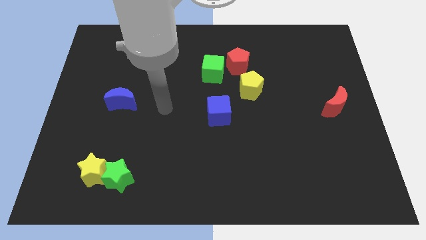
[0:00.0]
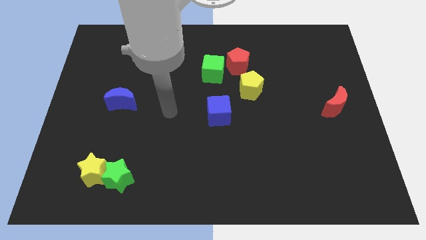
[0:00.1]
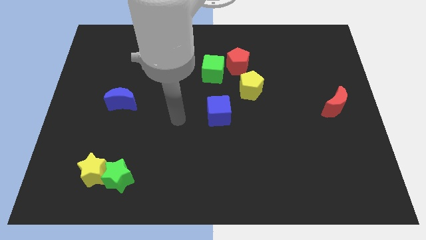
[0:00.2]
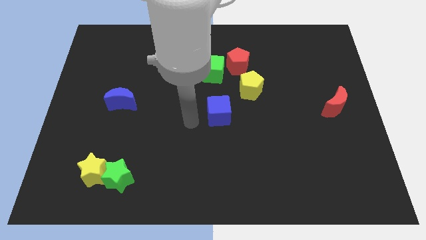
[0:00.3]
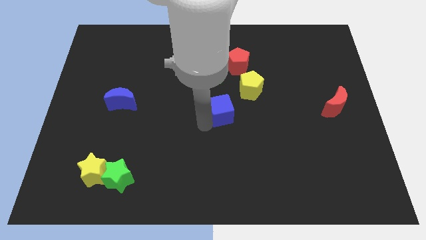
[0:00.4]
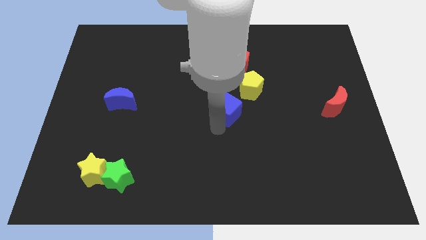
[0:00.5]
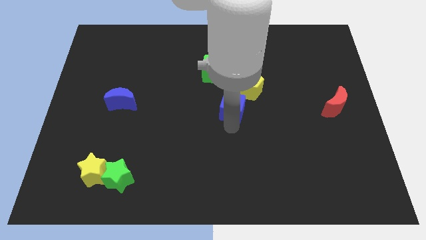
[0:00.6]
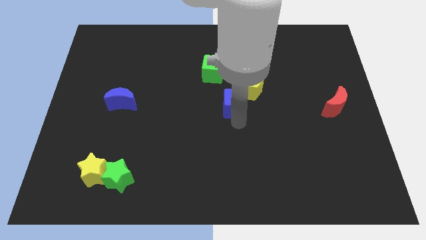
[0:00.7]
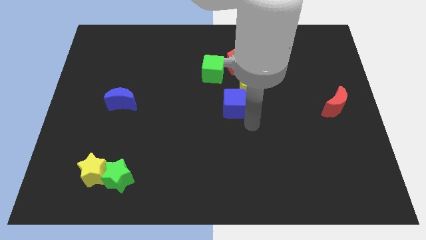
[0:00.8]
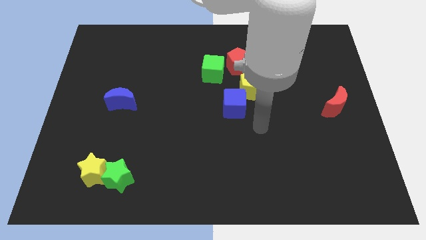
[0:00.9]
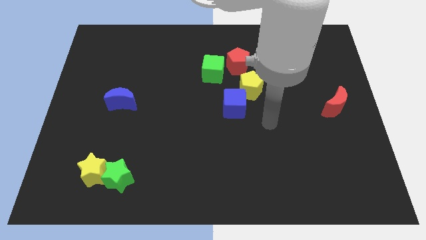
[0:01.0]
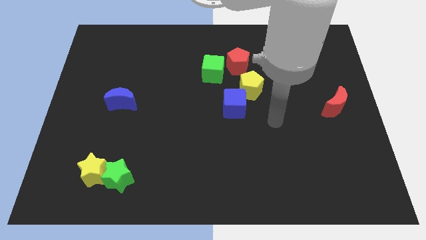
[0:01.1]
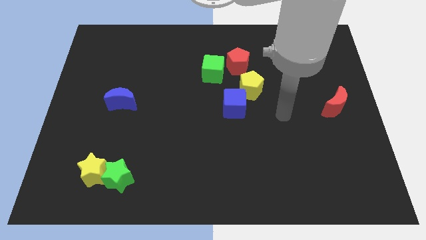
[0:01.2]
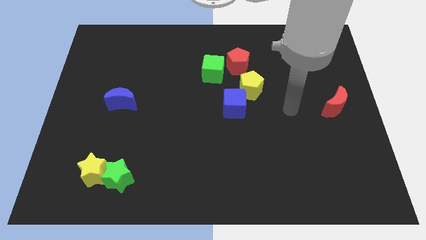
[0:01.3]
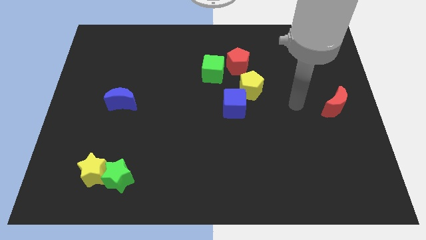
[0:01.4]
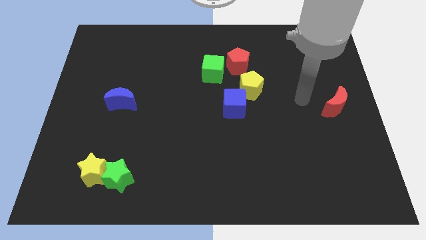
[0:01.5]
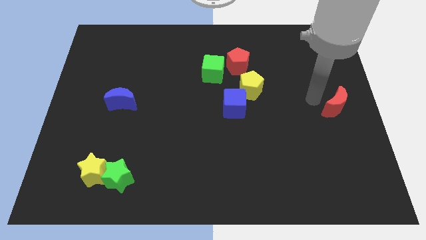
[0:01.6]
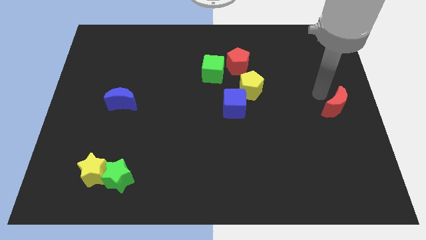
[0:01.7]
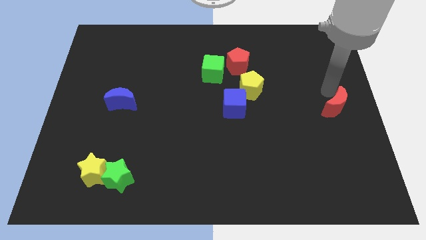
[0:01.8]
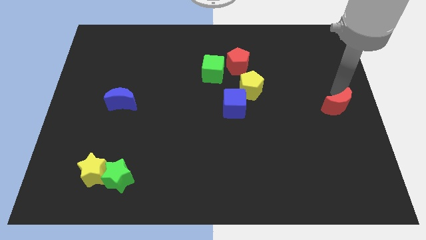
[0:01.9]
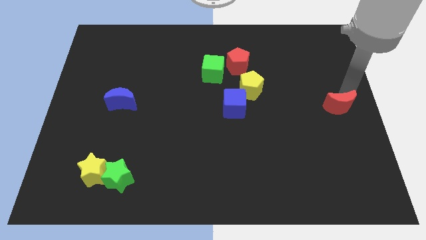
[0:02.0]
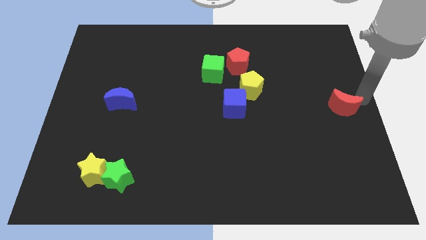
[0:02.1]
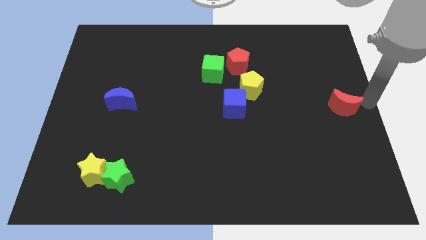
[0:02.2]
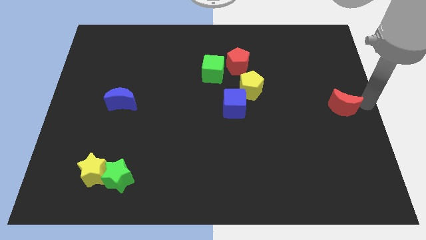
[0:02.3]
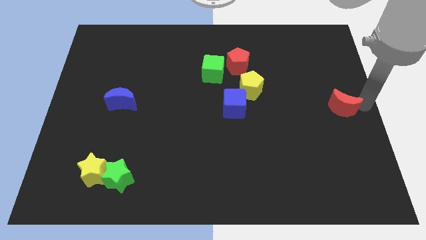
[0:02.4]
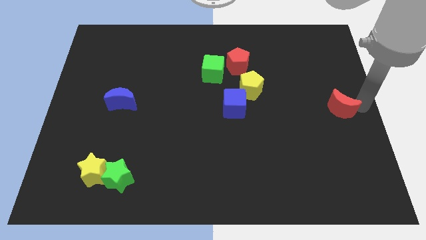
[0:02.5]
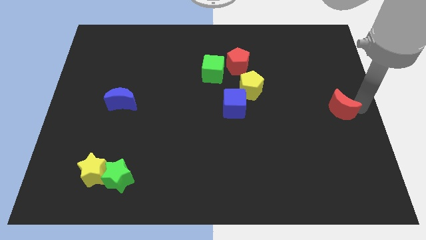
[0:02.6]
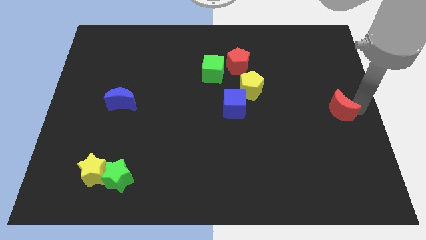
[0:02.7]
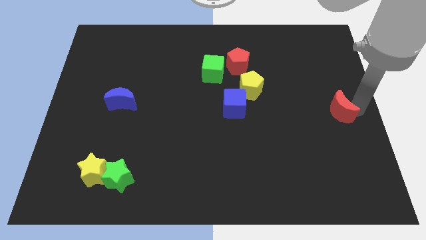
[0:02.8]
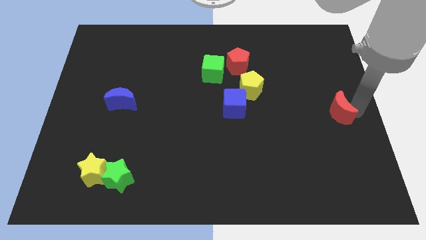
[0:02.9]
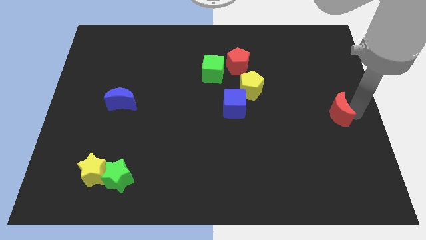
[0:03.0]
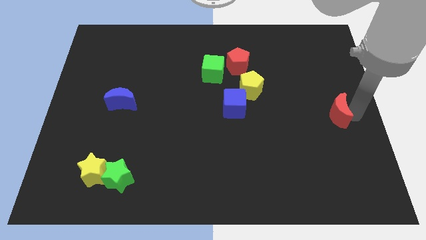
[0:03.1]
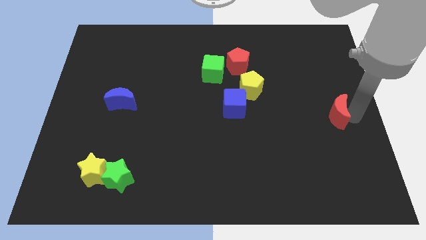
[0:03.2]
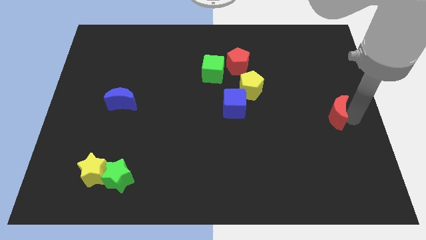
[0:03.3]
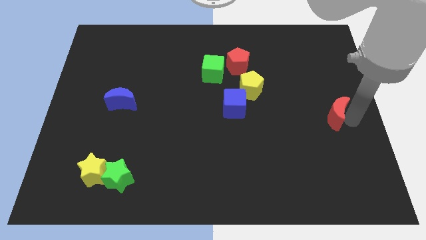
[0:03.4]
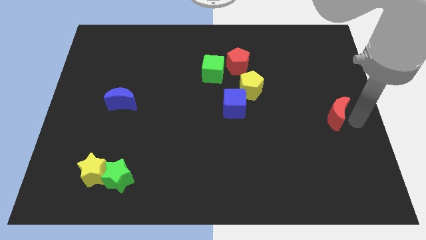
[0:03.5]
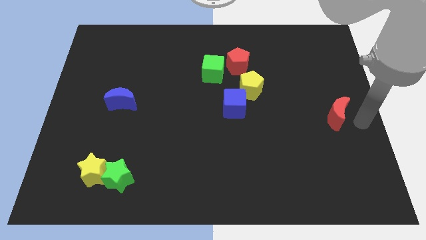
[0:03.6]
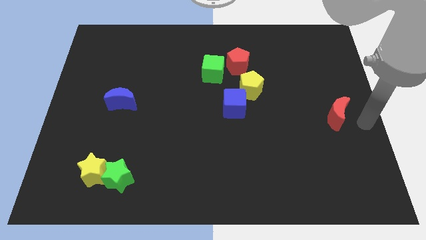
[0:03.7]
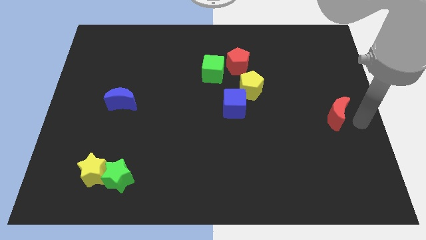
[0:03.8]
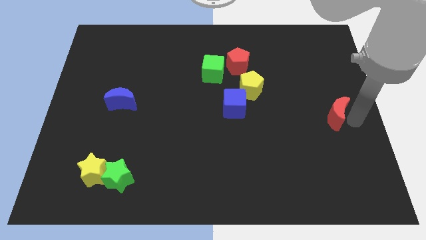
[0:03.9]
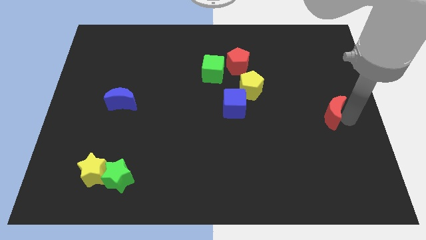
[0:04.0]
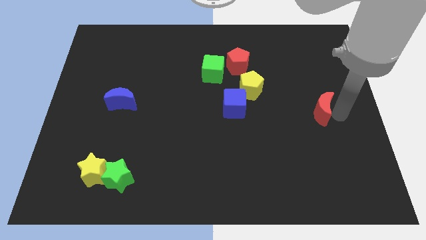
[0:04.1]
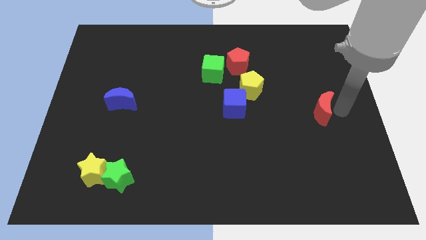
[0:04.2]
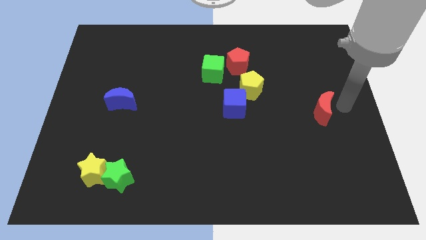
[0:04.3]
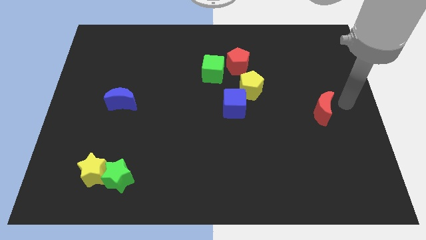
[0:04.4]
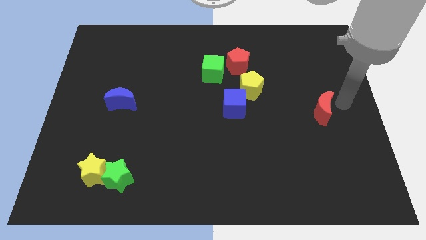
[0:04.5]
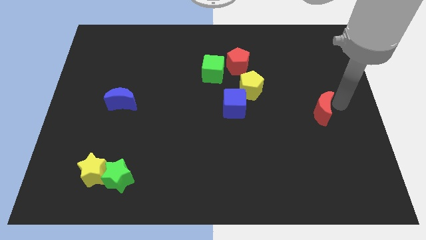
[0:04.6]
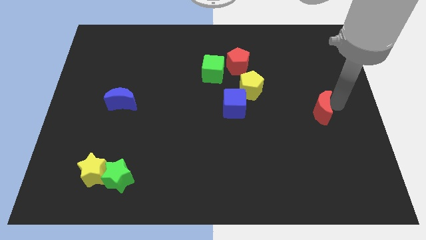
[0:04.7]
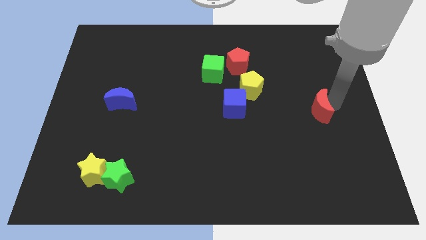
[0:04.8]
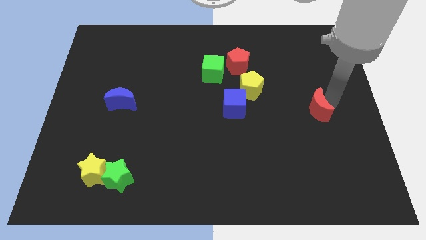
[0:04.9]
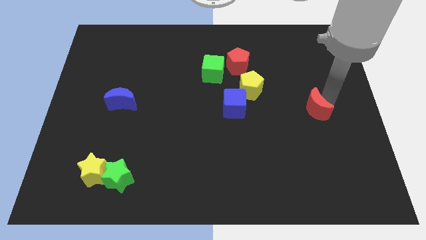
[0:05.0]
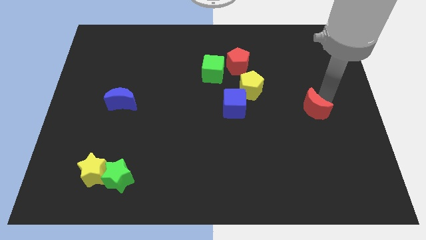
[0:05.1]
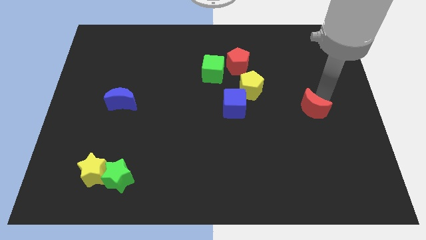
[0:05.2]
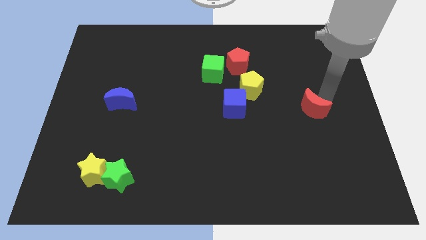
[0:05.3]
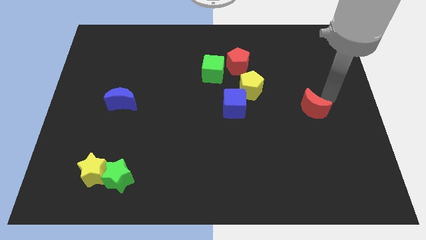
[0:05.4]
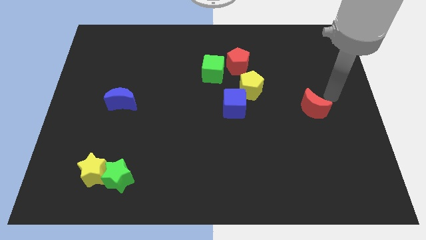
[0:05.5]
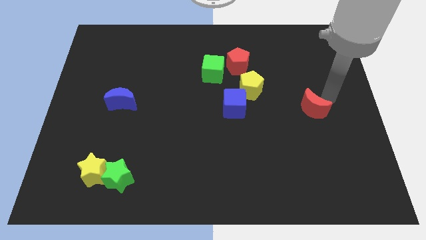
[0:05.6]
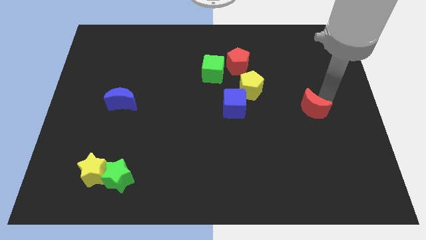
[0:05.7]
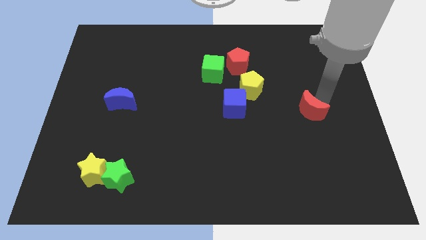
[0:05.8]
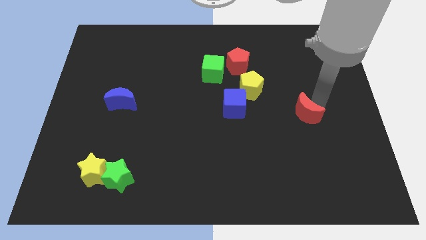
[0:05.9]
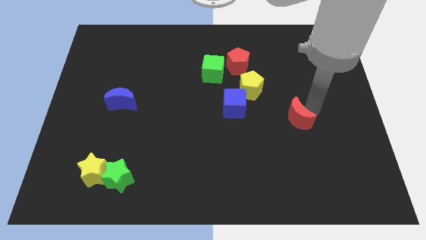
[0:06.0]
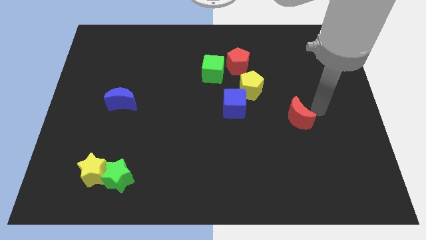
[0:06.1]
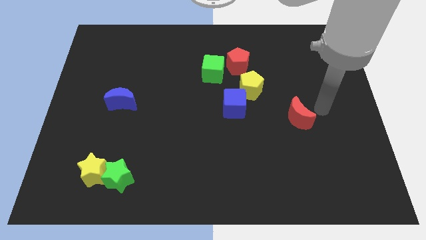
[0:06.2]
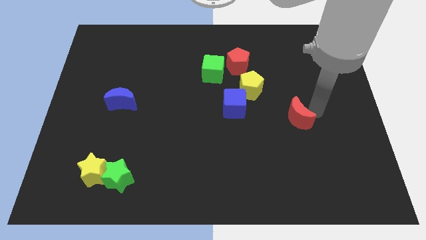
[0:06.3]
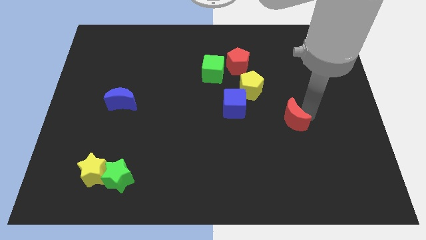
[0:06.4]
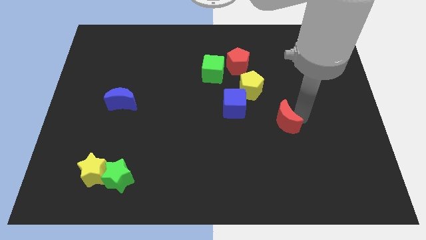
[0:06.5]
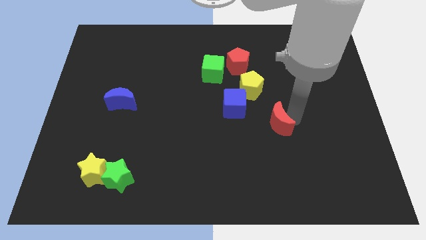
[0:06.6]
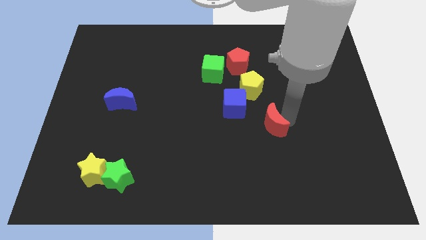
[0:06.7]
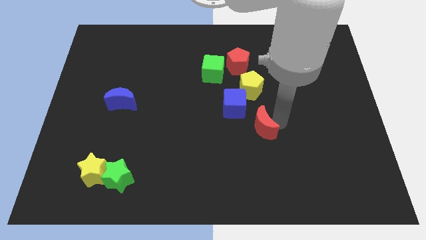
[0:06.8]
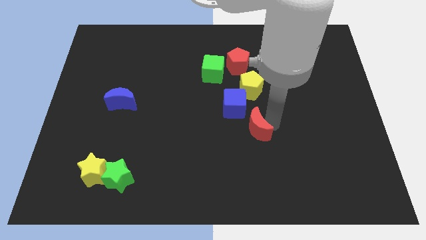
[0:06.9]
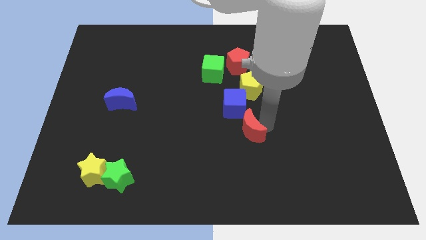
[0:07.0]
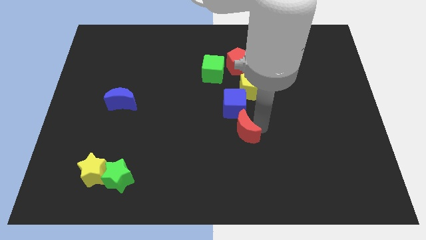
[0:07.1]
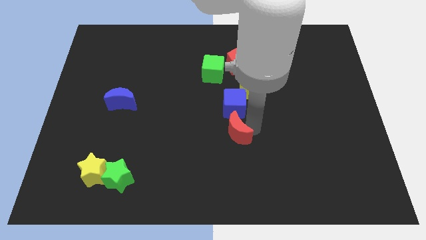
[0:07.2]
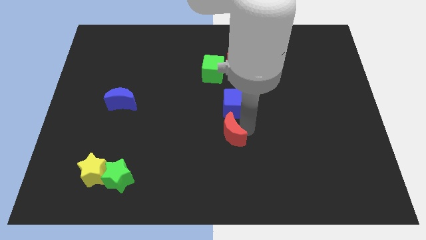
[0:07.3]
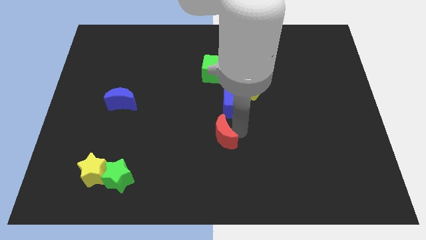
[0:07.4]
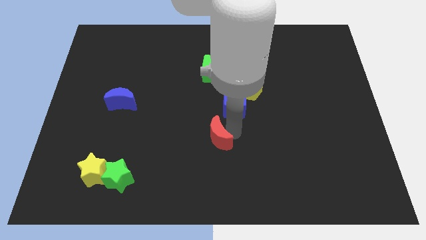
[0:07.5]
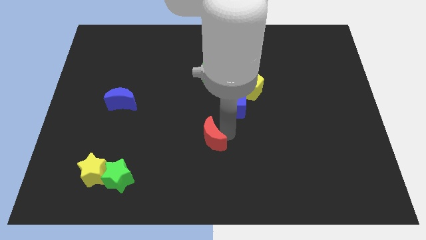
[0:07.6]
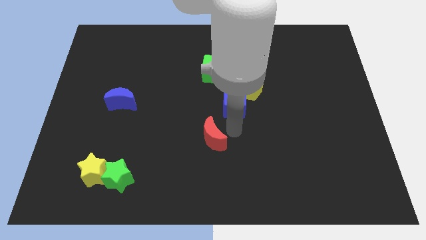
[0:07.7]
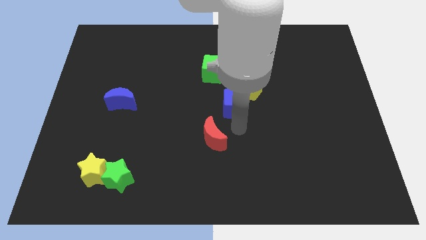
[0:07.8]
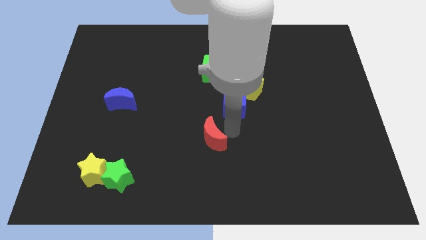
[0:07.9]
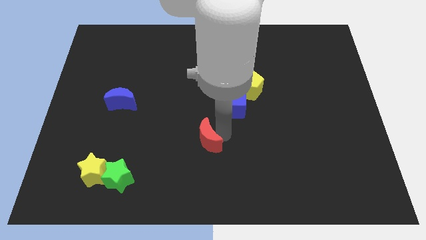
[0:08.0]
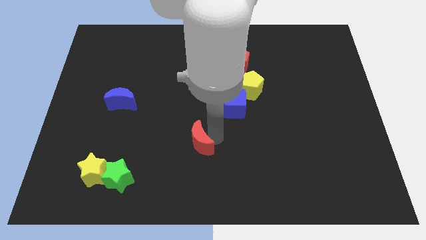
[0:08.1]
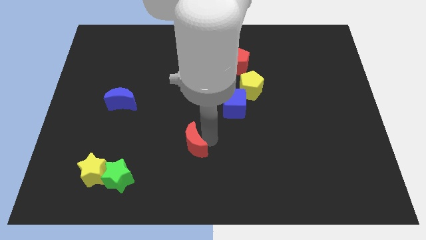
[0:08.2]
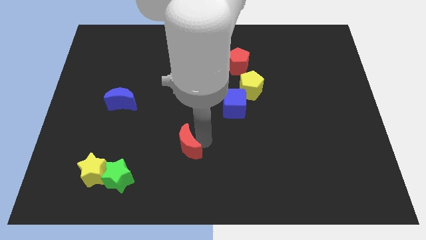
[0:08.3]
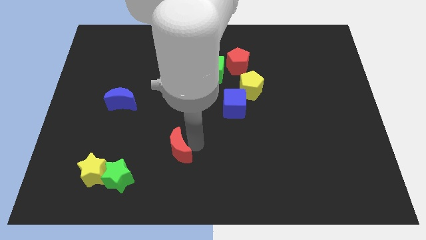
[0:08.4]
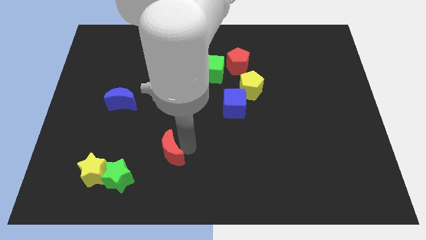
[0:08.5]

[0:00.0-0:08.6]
push the red moon diagonally up and to the right of the green star
